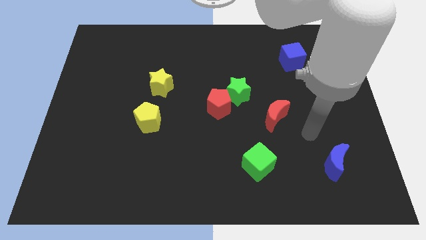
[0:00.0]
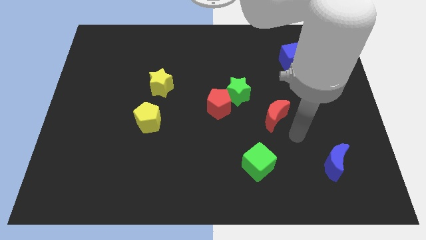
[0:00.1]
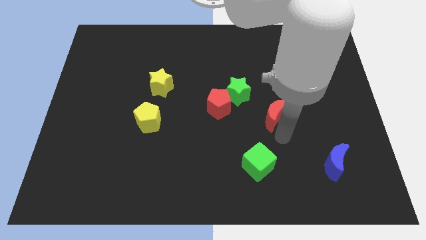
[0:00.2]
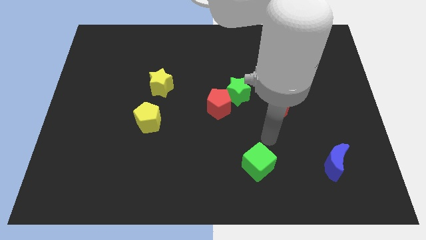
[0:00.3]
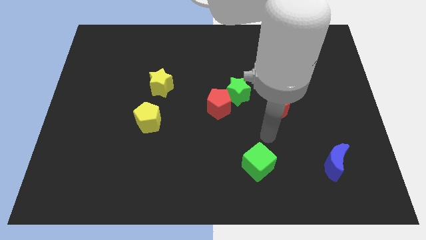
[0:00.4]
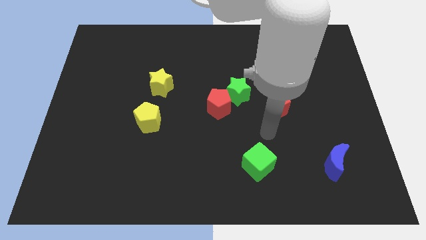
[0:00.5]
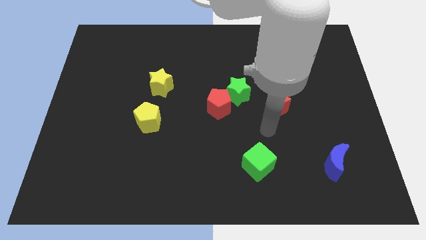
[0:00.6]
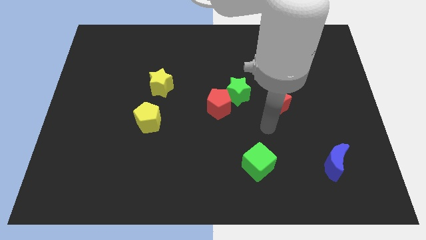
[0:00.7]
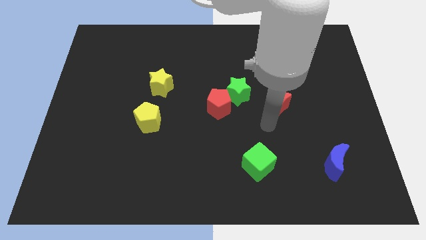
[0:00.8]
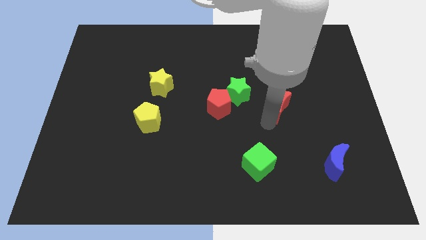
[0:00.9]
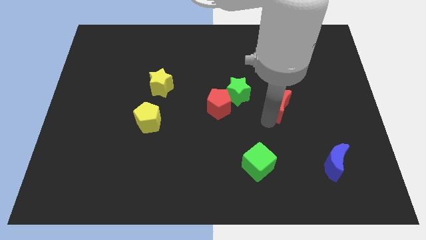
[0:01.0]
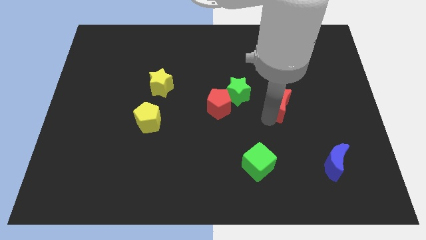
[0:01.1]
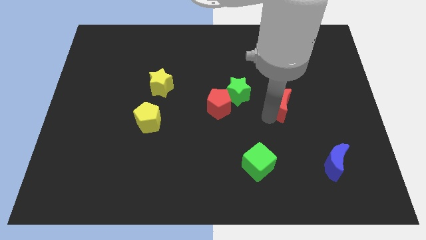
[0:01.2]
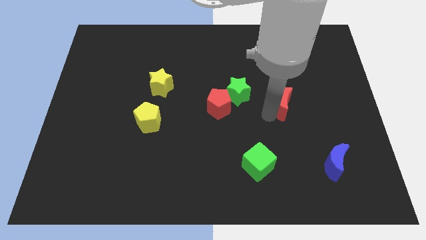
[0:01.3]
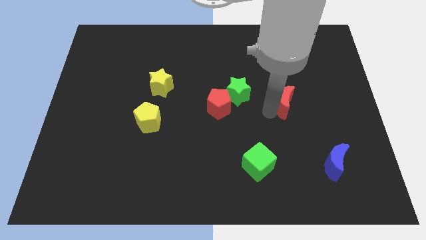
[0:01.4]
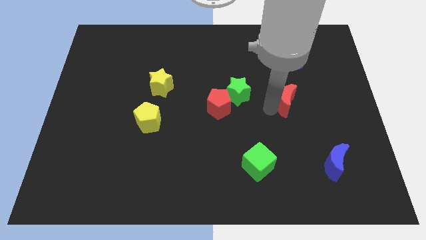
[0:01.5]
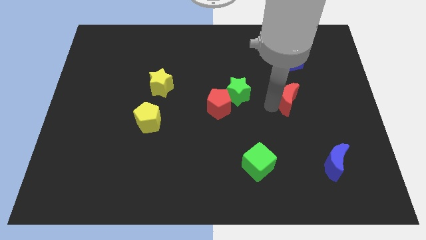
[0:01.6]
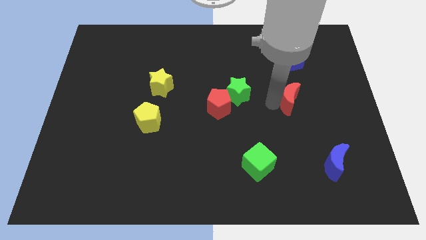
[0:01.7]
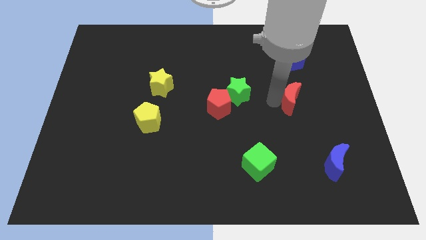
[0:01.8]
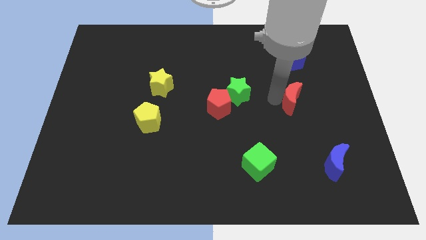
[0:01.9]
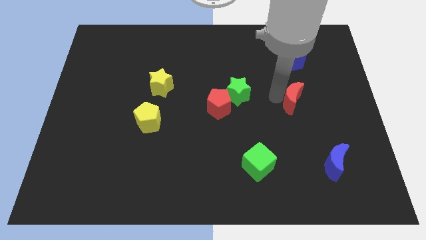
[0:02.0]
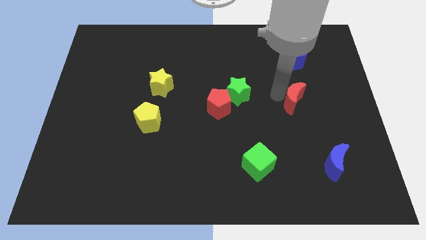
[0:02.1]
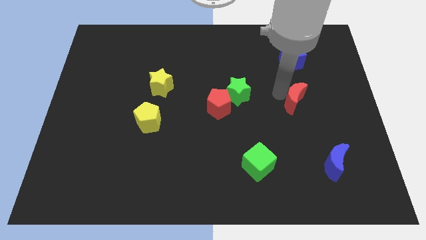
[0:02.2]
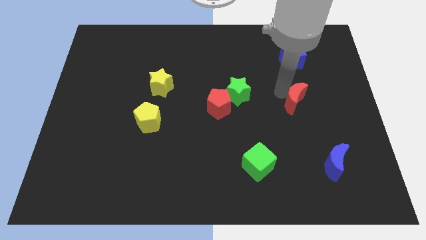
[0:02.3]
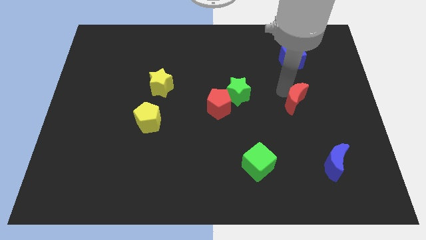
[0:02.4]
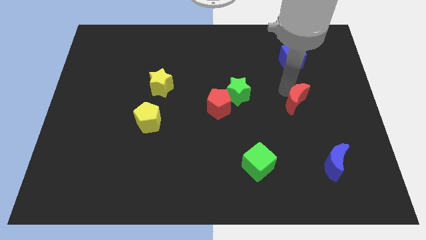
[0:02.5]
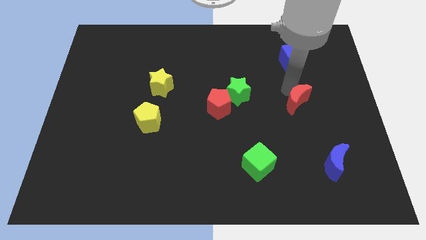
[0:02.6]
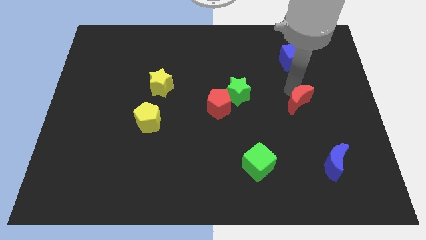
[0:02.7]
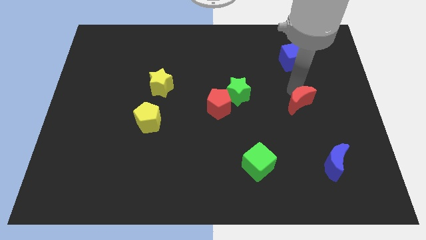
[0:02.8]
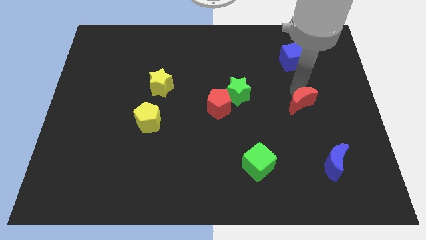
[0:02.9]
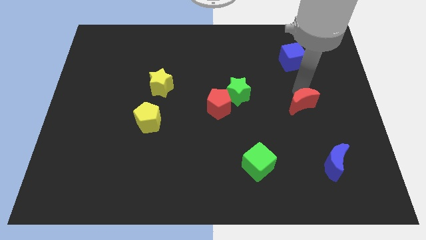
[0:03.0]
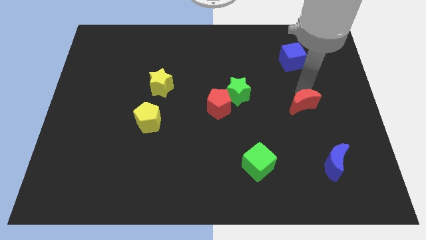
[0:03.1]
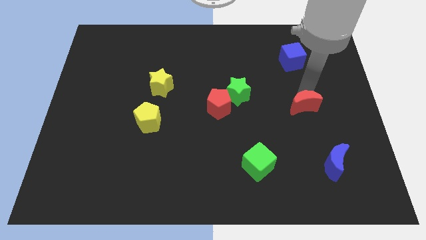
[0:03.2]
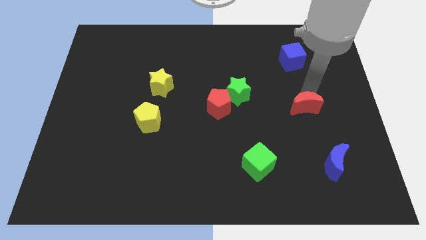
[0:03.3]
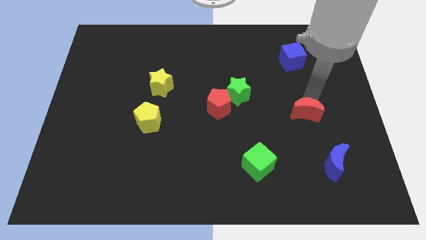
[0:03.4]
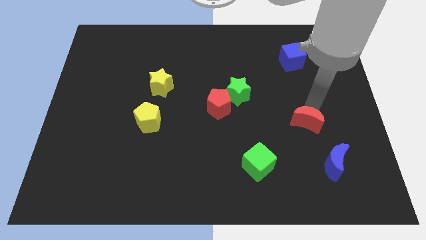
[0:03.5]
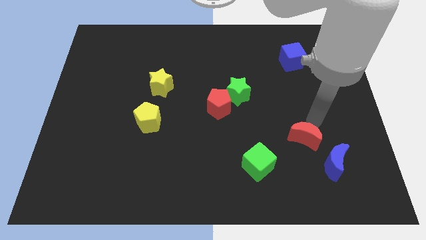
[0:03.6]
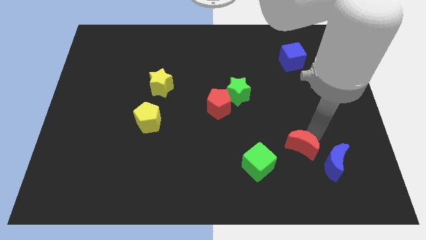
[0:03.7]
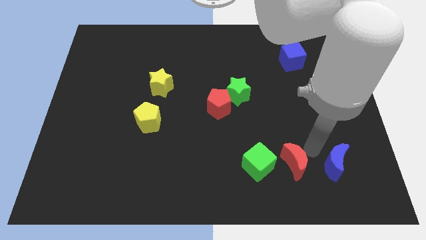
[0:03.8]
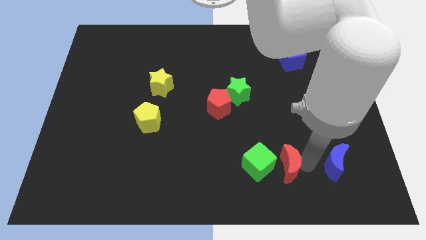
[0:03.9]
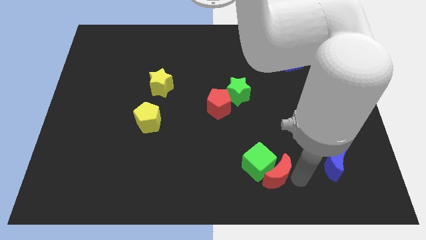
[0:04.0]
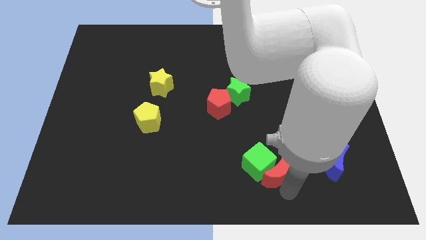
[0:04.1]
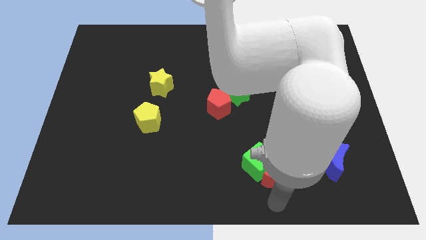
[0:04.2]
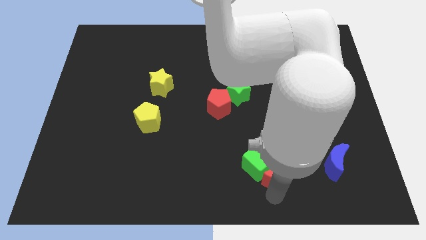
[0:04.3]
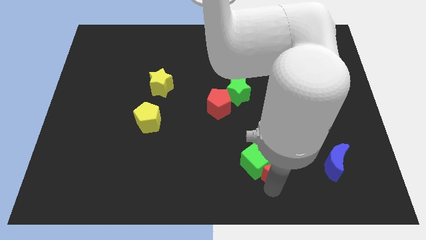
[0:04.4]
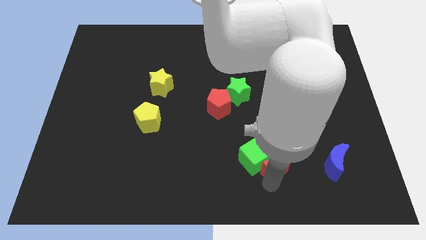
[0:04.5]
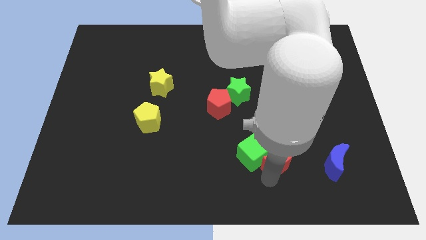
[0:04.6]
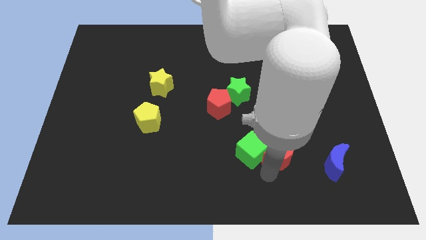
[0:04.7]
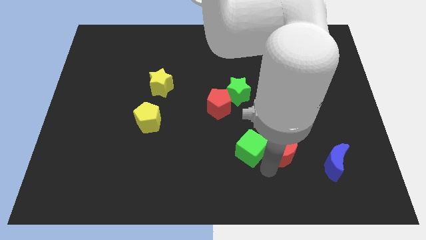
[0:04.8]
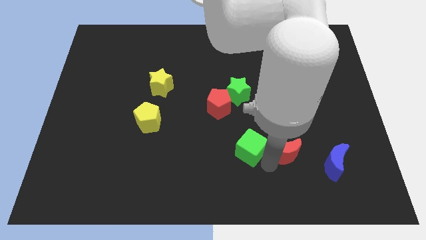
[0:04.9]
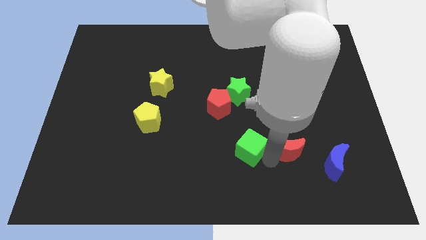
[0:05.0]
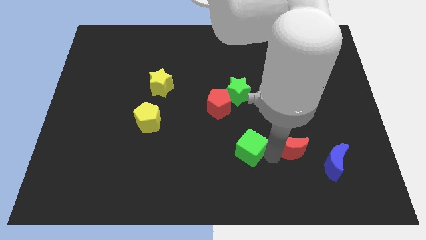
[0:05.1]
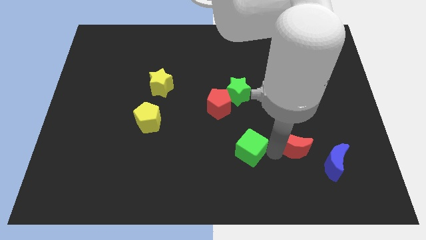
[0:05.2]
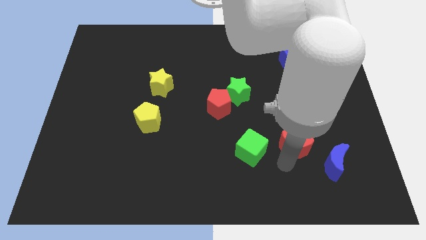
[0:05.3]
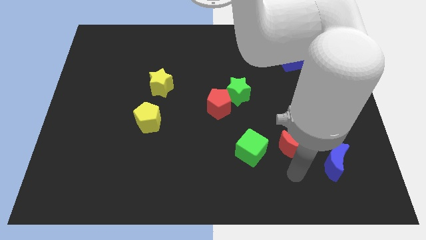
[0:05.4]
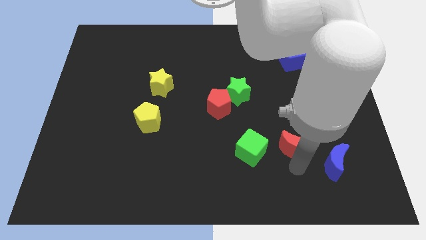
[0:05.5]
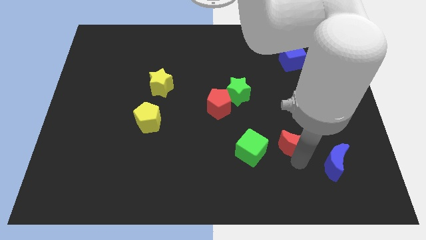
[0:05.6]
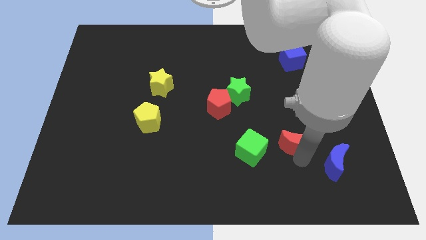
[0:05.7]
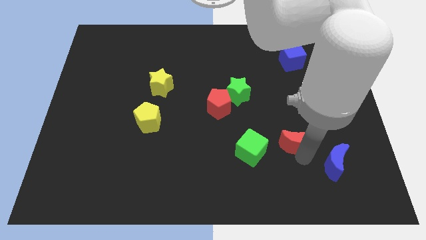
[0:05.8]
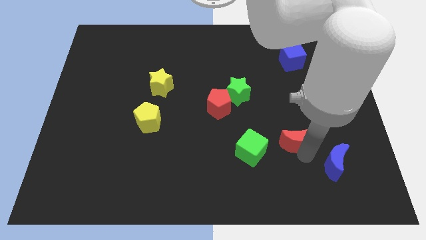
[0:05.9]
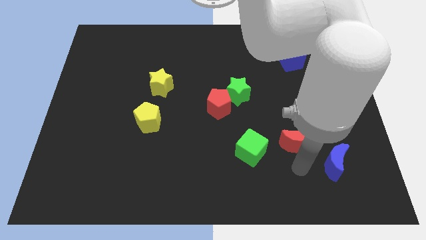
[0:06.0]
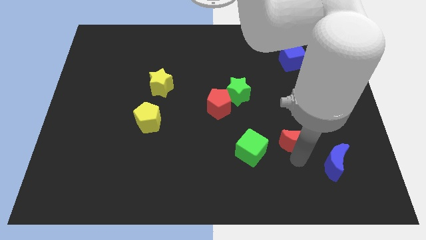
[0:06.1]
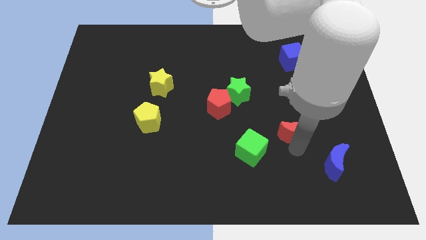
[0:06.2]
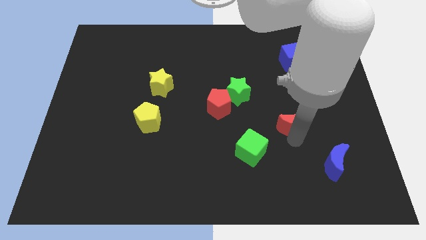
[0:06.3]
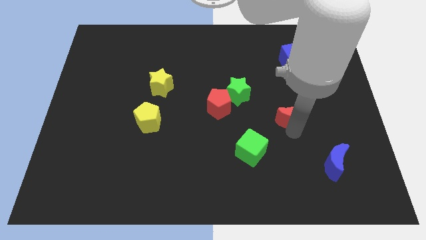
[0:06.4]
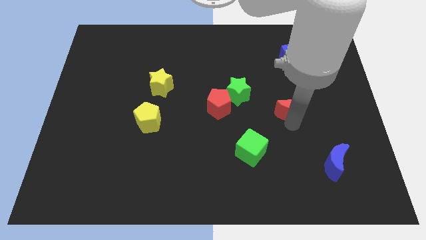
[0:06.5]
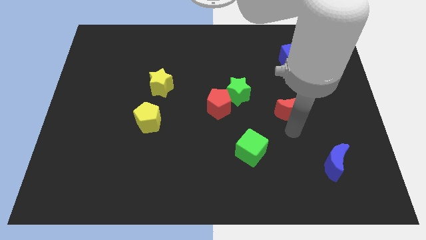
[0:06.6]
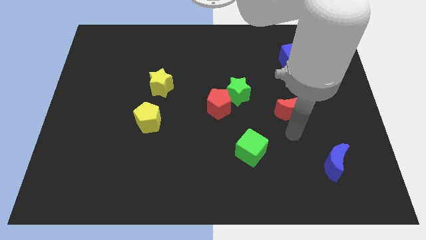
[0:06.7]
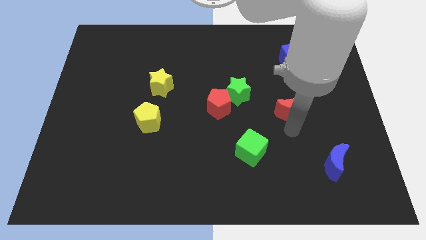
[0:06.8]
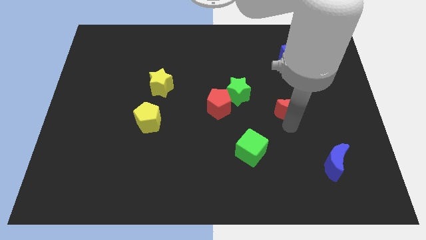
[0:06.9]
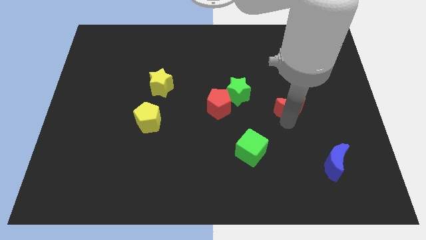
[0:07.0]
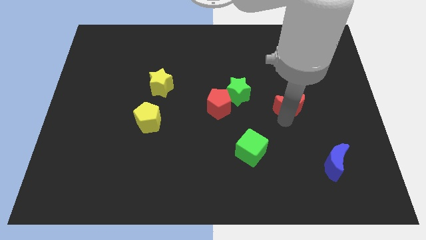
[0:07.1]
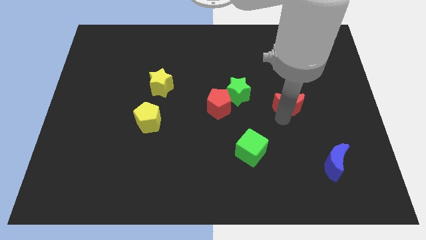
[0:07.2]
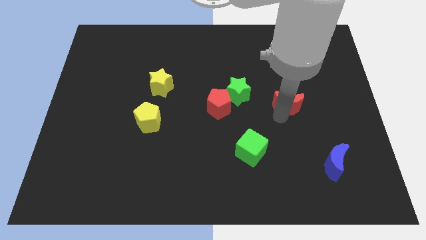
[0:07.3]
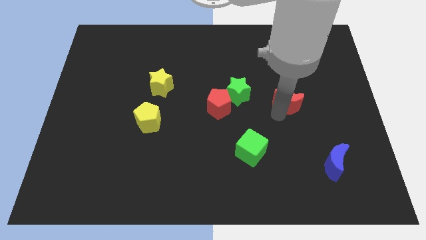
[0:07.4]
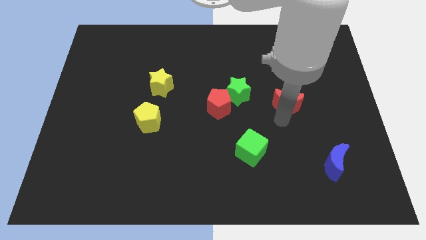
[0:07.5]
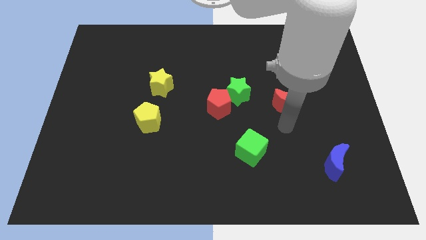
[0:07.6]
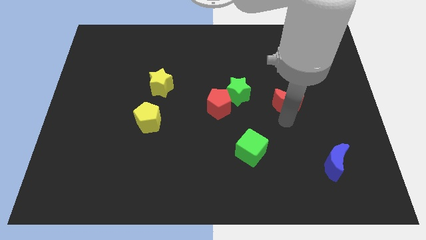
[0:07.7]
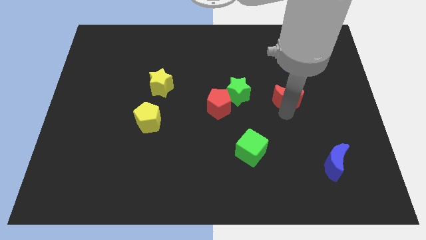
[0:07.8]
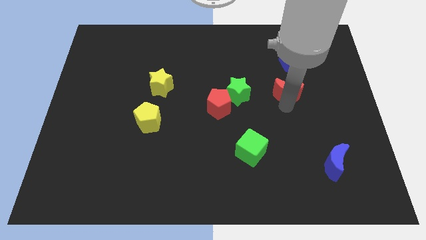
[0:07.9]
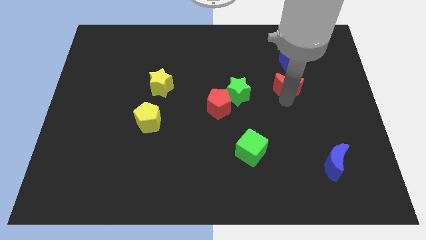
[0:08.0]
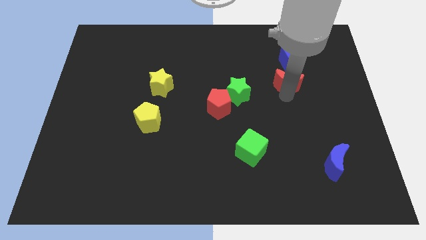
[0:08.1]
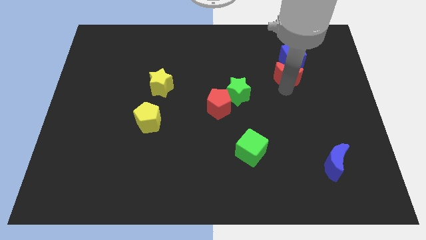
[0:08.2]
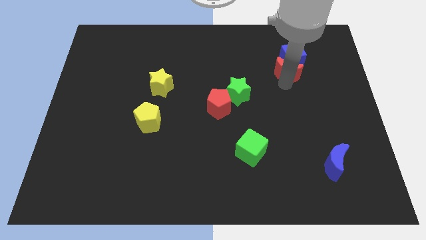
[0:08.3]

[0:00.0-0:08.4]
put the red moon towards the blue cube

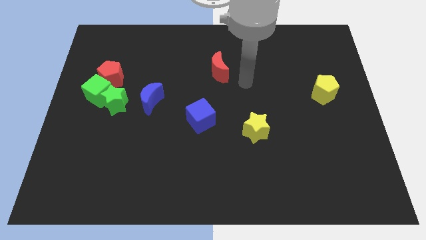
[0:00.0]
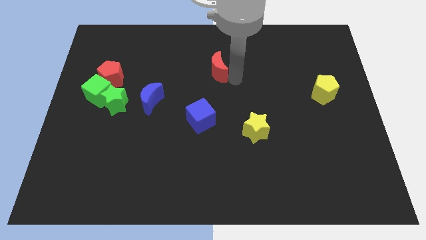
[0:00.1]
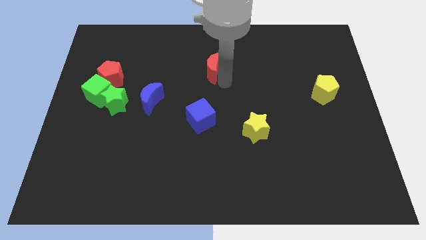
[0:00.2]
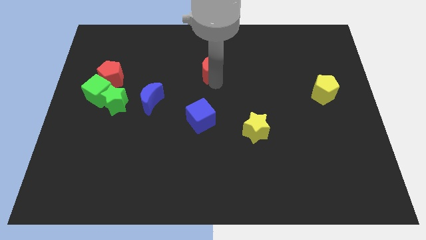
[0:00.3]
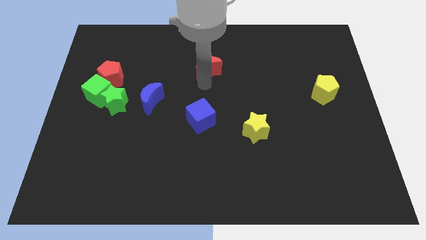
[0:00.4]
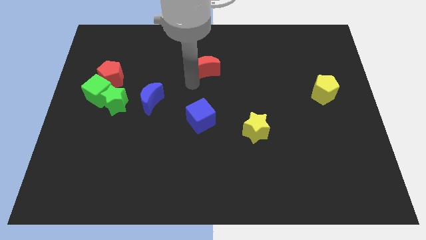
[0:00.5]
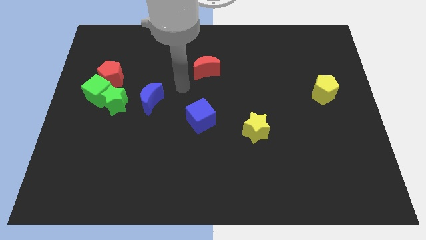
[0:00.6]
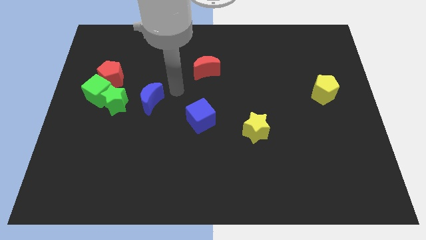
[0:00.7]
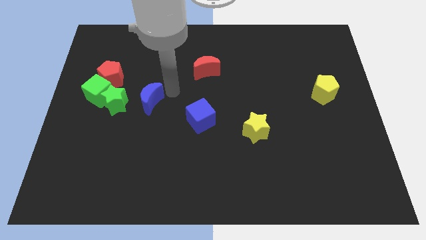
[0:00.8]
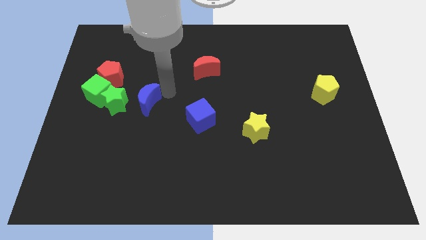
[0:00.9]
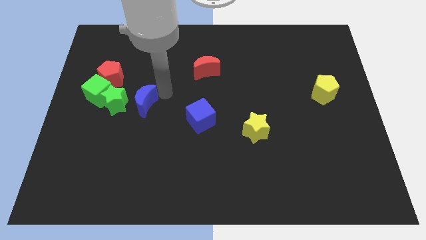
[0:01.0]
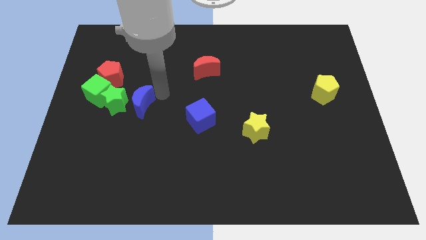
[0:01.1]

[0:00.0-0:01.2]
slide the blue moon to the green star
